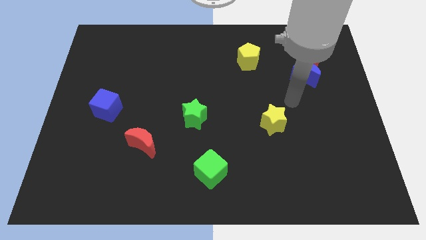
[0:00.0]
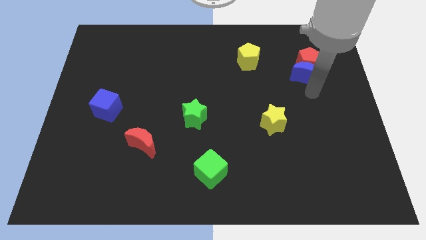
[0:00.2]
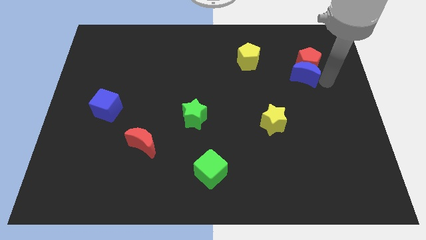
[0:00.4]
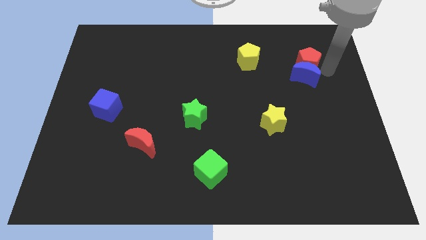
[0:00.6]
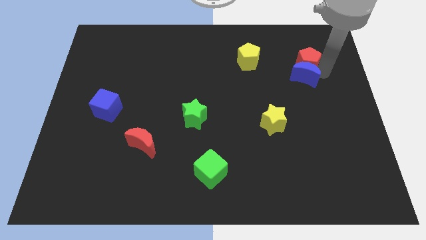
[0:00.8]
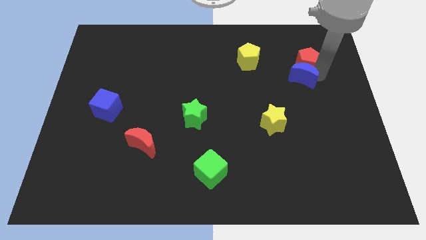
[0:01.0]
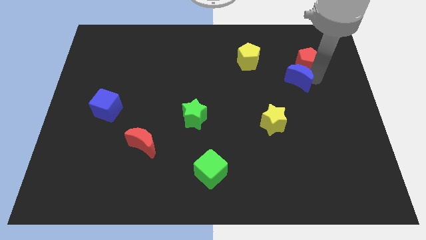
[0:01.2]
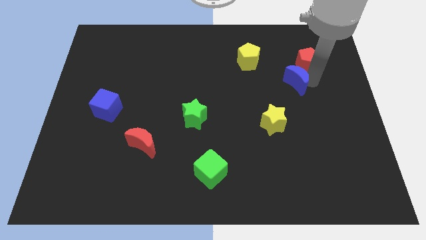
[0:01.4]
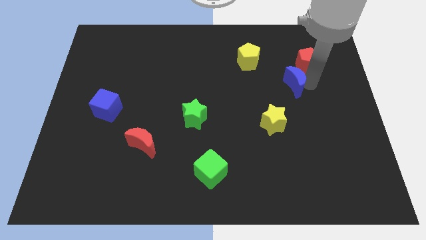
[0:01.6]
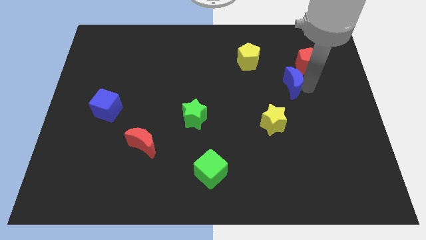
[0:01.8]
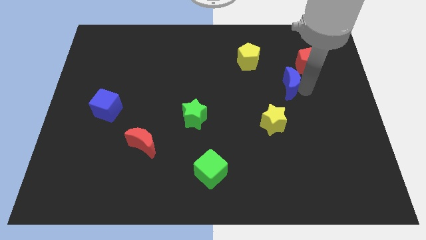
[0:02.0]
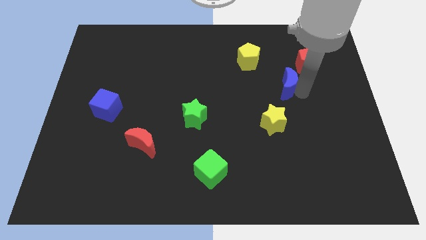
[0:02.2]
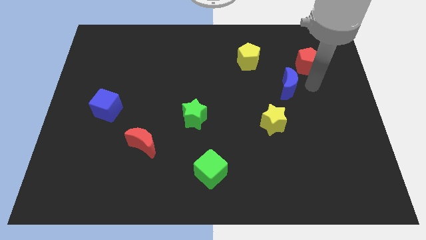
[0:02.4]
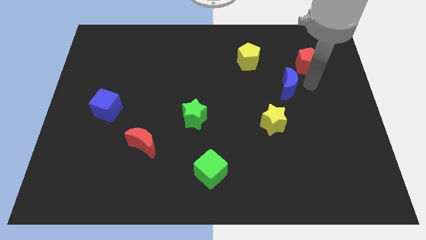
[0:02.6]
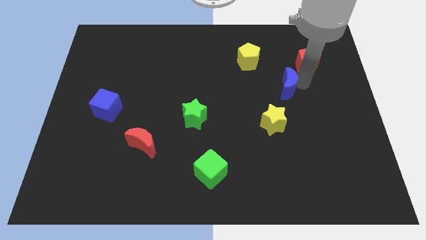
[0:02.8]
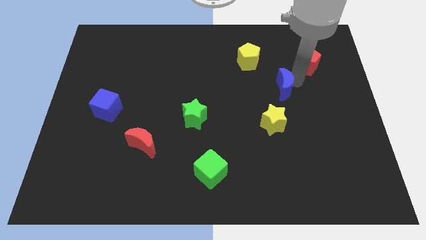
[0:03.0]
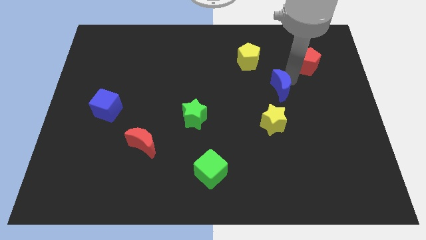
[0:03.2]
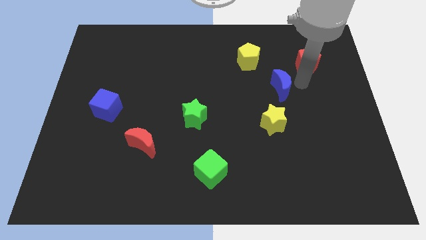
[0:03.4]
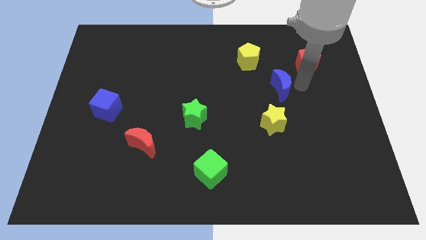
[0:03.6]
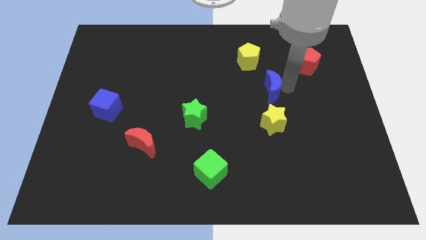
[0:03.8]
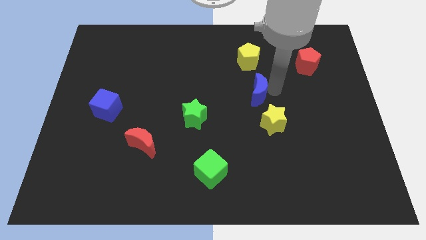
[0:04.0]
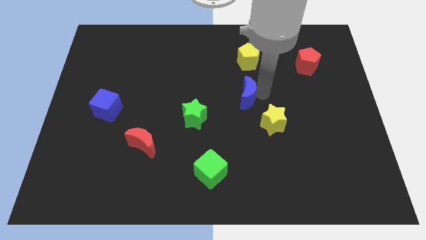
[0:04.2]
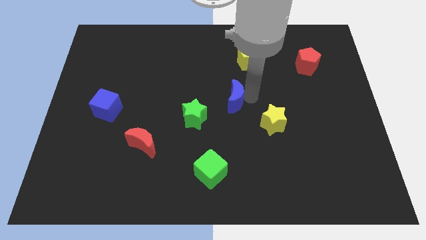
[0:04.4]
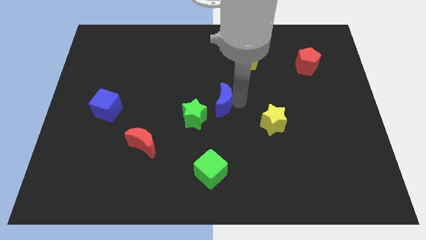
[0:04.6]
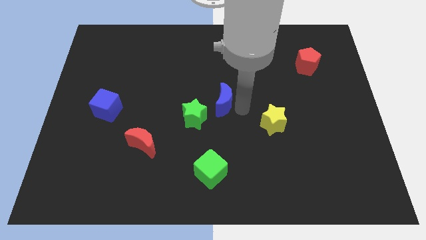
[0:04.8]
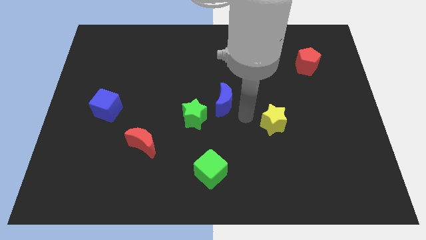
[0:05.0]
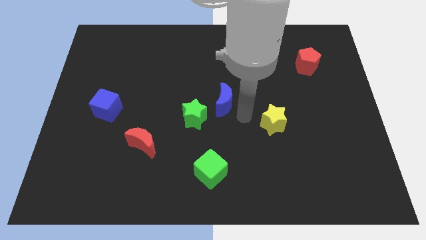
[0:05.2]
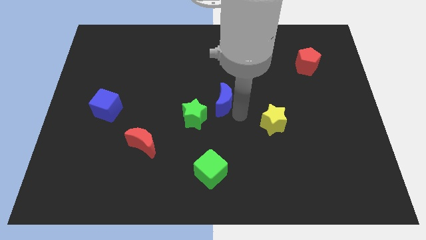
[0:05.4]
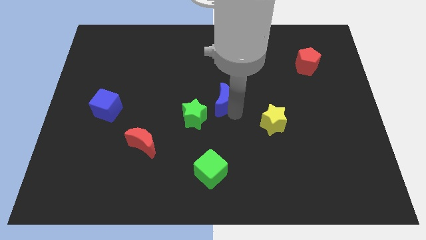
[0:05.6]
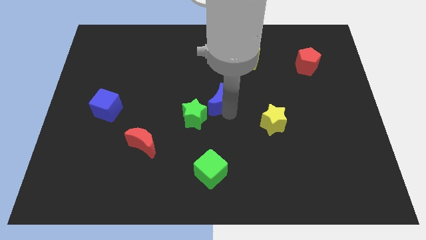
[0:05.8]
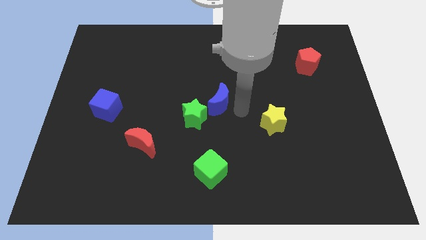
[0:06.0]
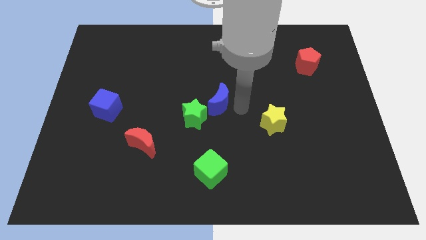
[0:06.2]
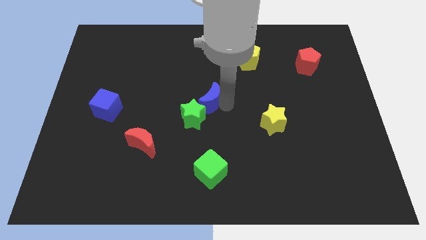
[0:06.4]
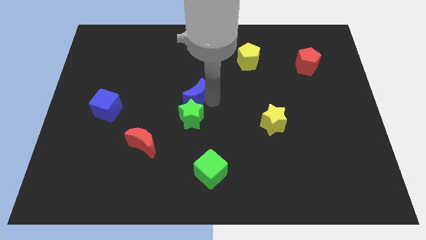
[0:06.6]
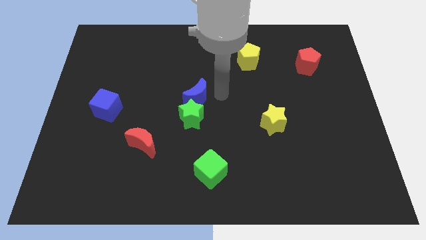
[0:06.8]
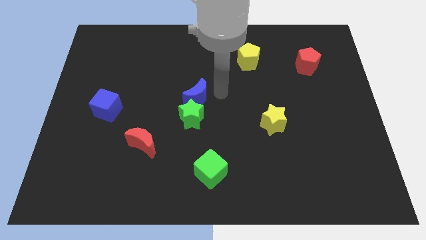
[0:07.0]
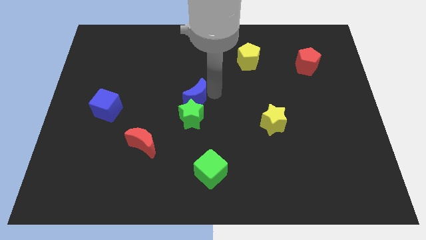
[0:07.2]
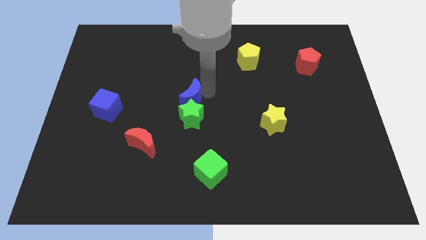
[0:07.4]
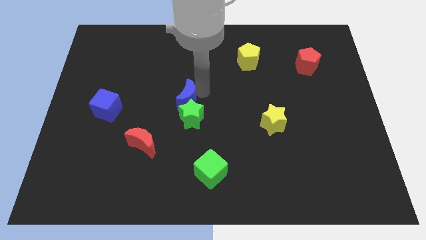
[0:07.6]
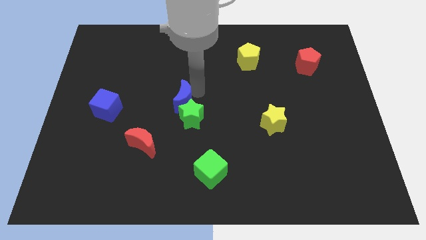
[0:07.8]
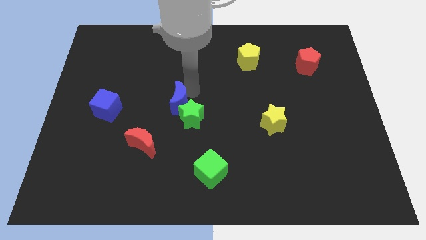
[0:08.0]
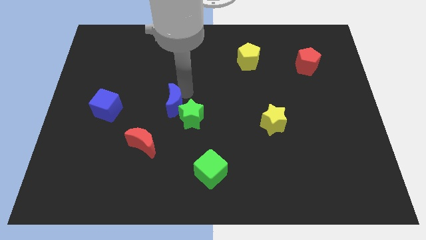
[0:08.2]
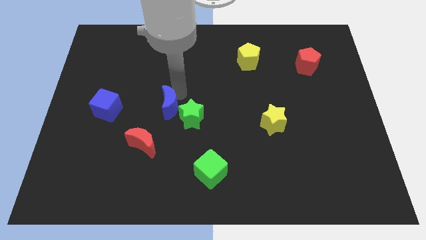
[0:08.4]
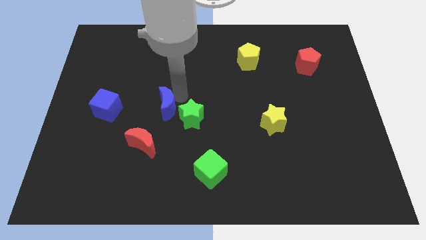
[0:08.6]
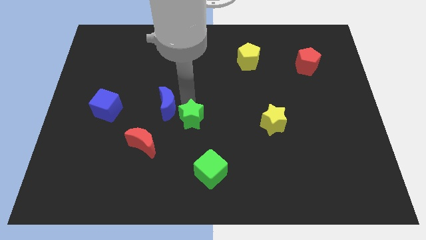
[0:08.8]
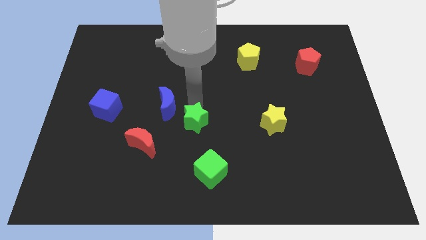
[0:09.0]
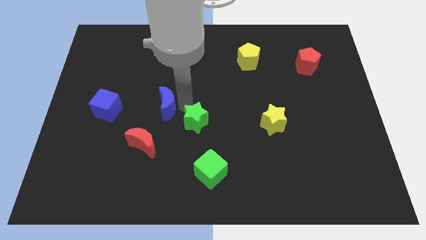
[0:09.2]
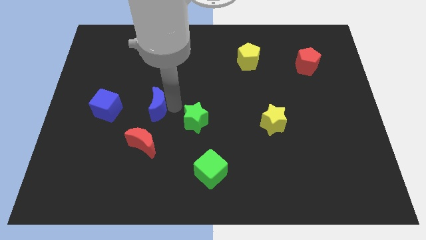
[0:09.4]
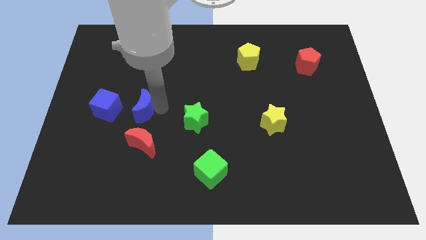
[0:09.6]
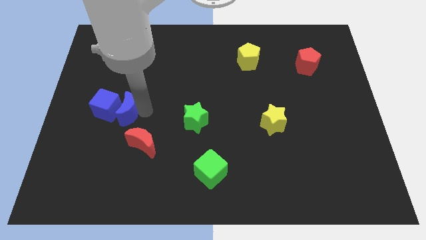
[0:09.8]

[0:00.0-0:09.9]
push the blue moon close to the blue cube

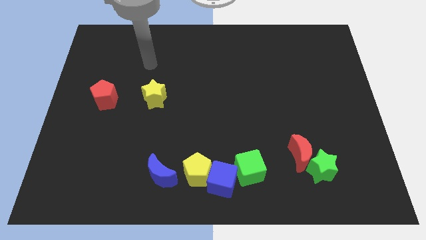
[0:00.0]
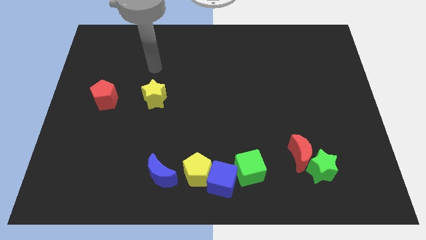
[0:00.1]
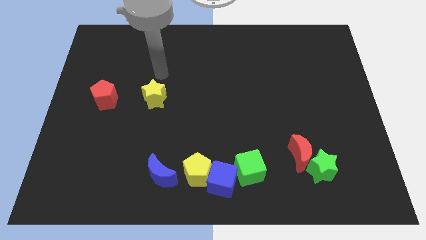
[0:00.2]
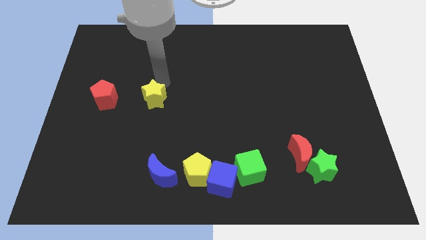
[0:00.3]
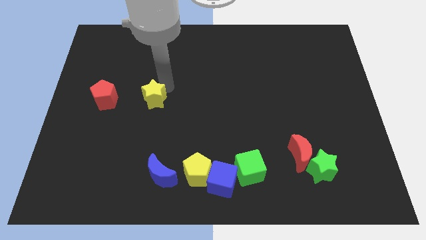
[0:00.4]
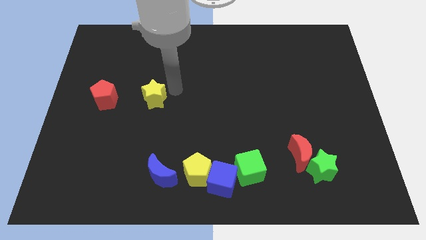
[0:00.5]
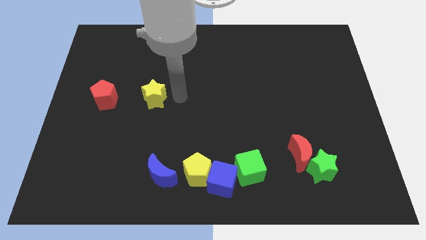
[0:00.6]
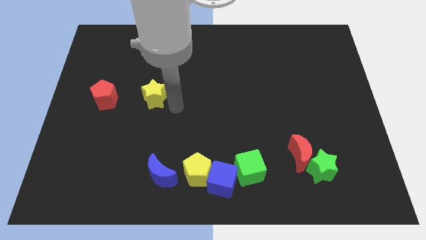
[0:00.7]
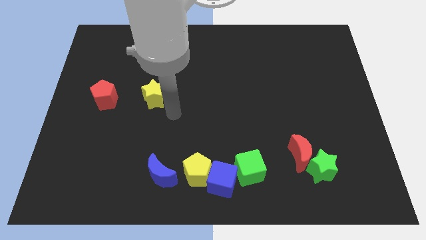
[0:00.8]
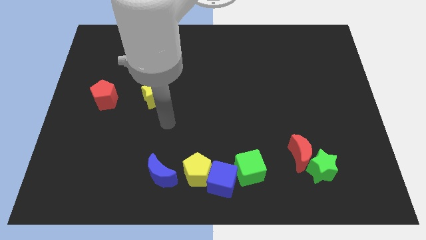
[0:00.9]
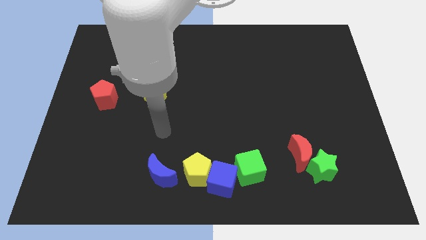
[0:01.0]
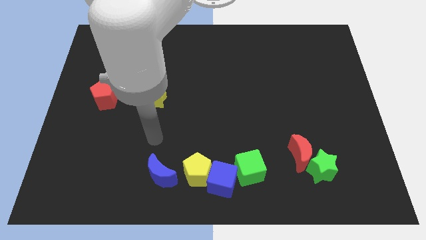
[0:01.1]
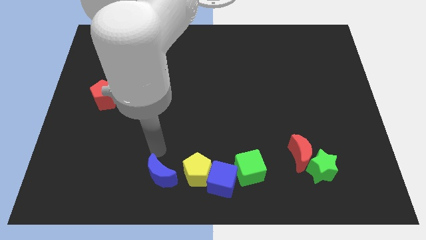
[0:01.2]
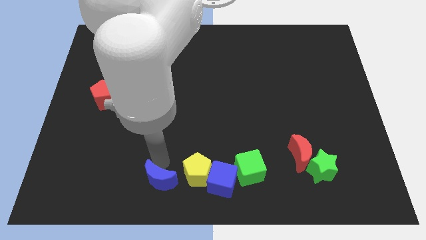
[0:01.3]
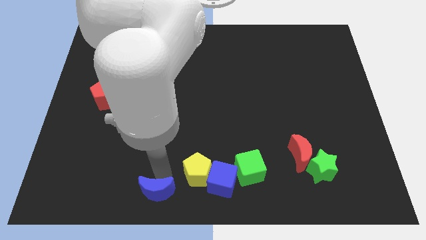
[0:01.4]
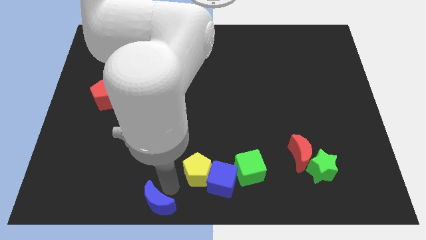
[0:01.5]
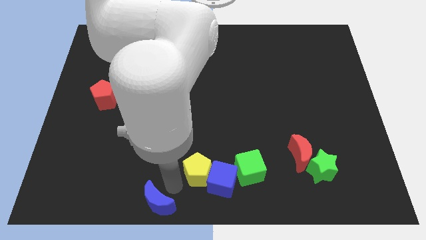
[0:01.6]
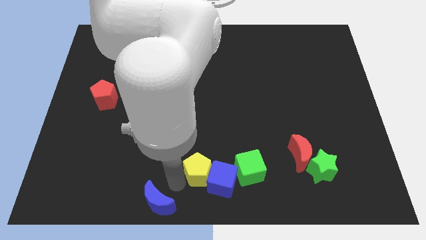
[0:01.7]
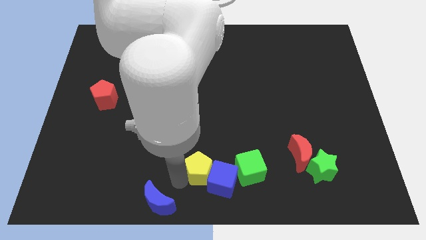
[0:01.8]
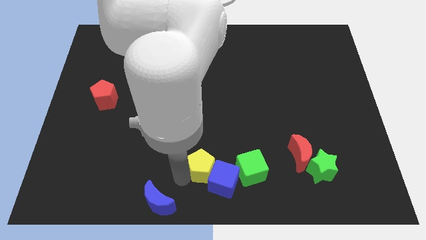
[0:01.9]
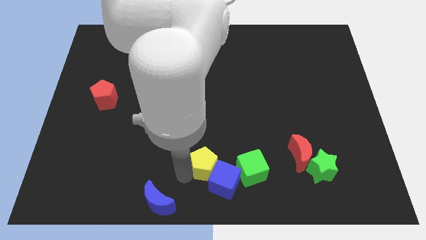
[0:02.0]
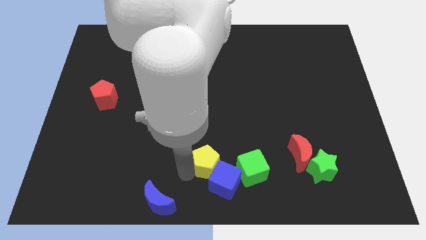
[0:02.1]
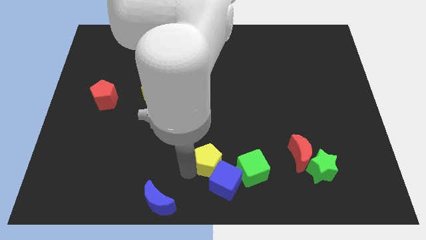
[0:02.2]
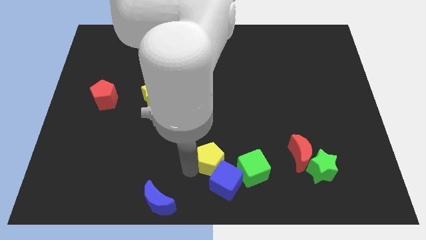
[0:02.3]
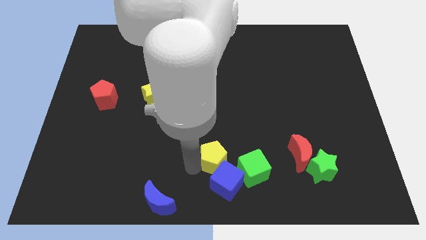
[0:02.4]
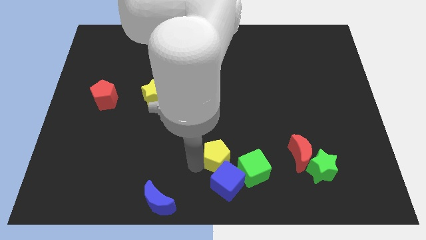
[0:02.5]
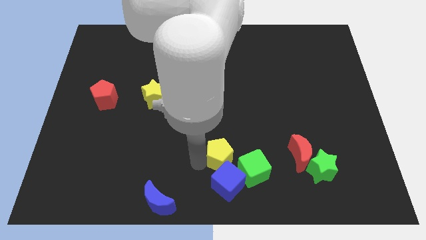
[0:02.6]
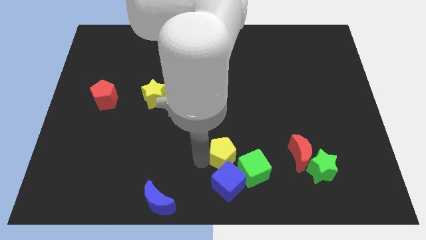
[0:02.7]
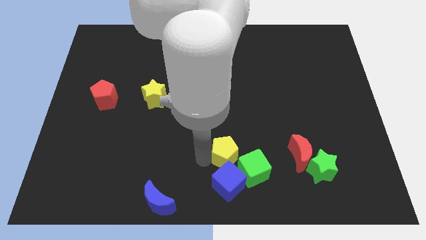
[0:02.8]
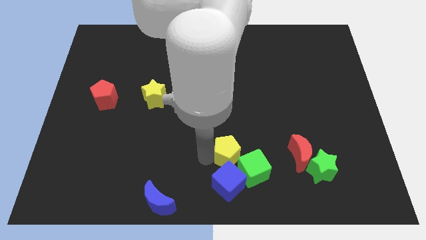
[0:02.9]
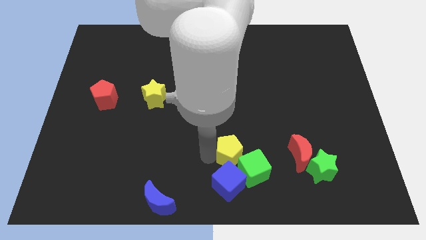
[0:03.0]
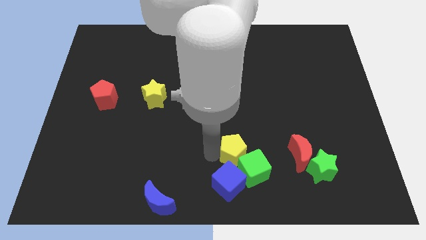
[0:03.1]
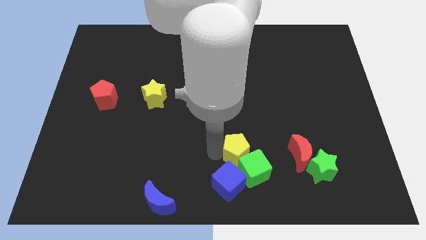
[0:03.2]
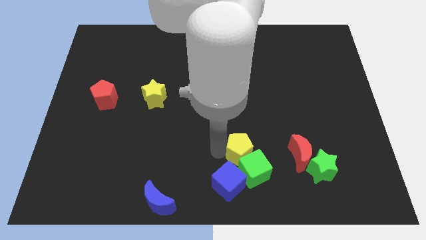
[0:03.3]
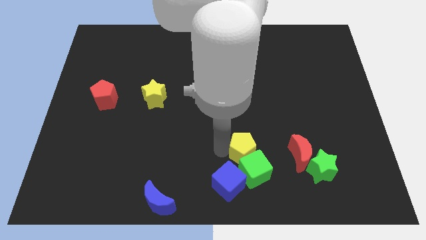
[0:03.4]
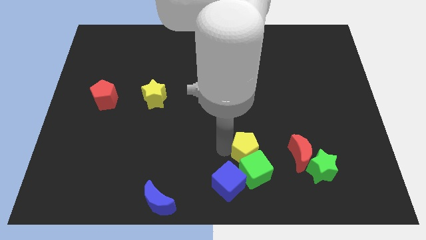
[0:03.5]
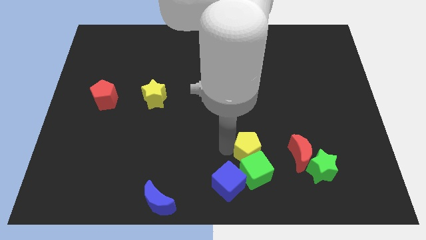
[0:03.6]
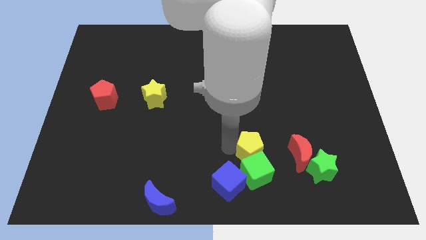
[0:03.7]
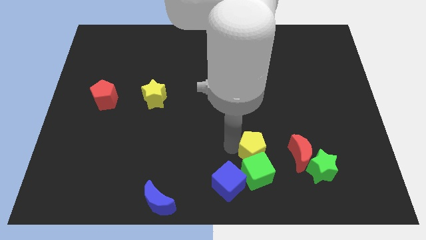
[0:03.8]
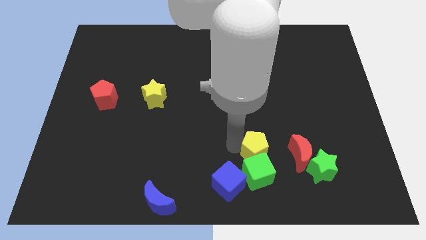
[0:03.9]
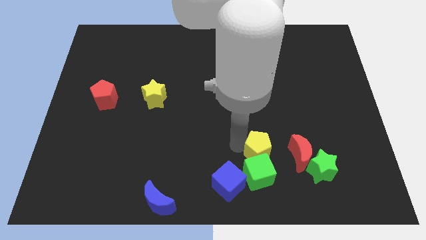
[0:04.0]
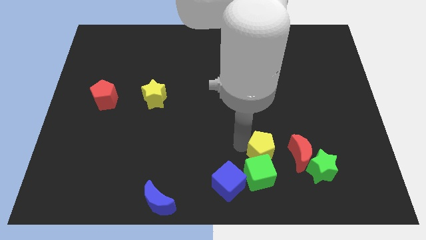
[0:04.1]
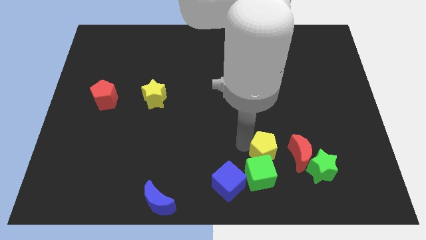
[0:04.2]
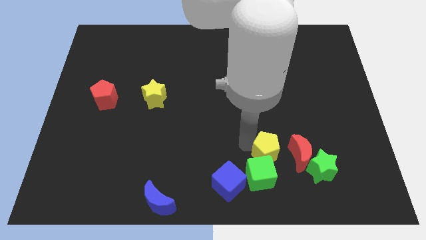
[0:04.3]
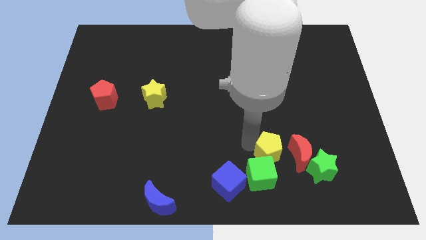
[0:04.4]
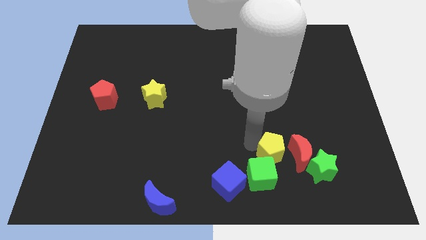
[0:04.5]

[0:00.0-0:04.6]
push the yellow pentagon next to the red moon
